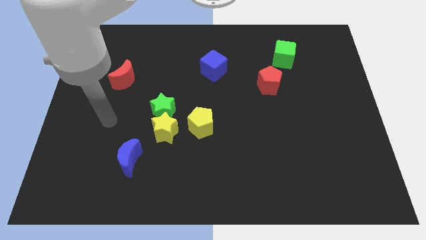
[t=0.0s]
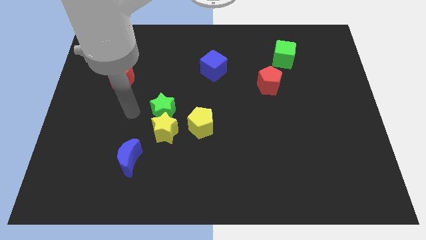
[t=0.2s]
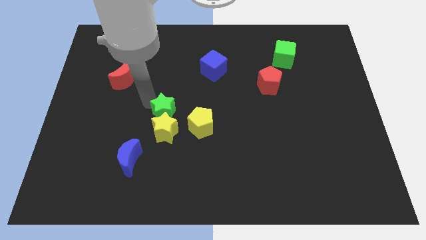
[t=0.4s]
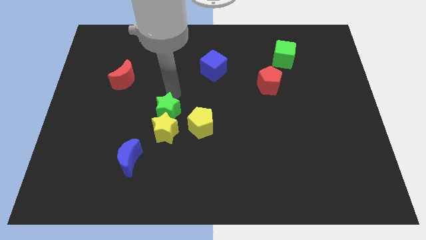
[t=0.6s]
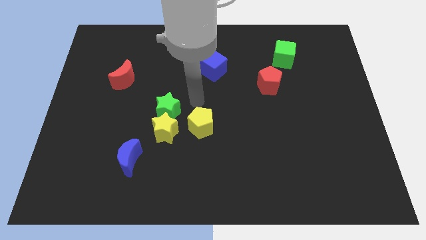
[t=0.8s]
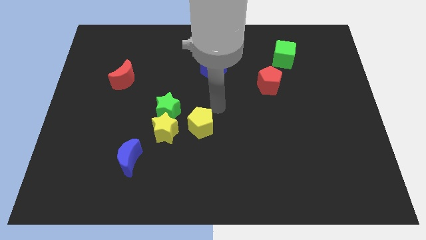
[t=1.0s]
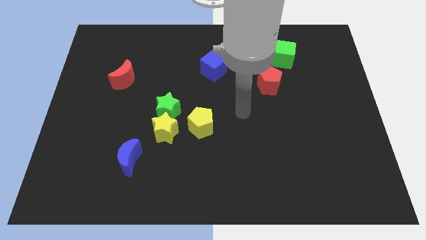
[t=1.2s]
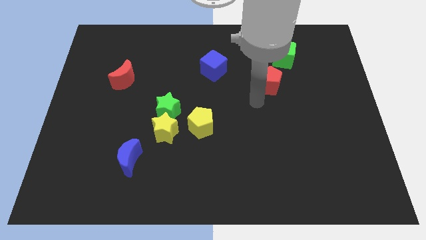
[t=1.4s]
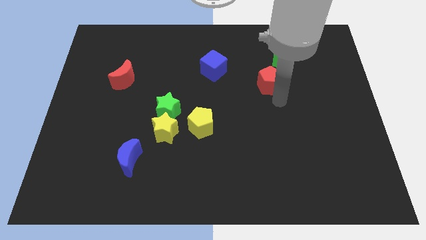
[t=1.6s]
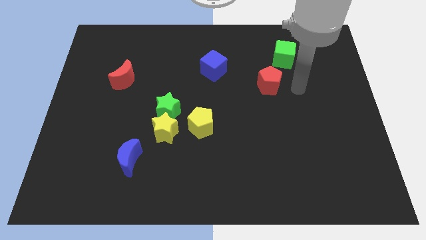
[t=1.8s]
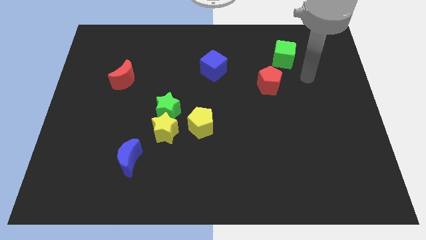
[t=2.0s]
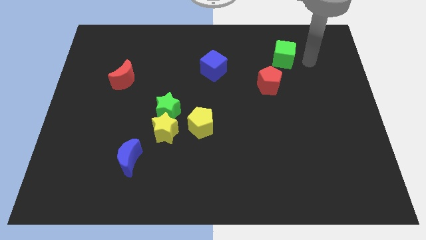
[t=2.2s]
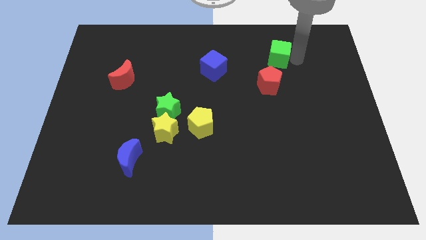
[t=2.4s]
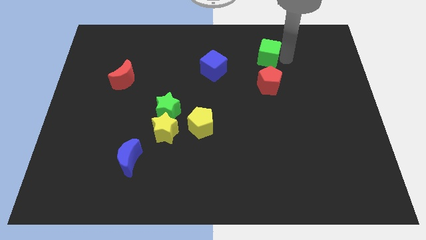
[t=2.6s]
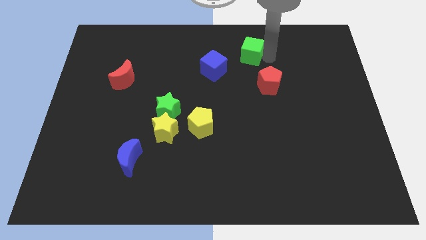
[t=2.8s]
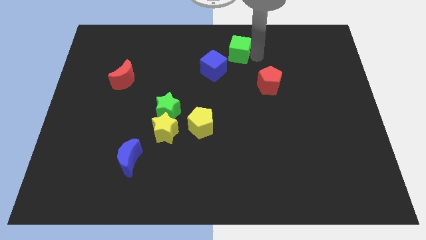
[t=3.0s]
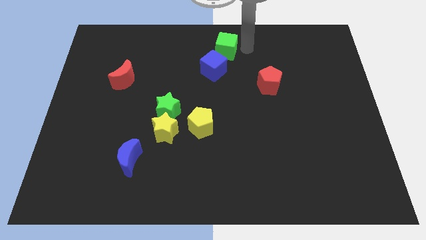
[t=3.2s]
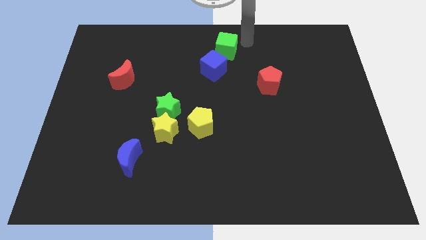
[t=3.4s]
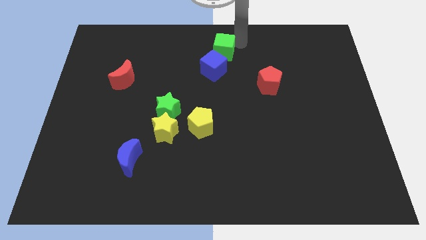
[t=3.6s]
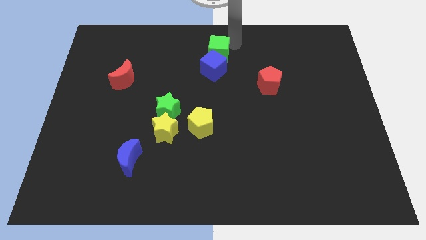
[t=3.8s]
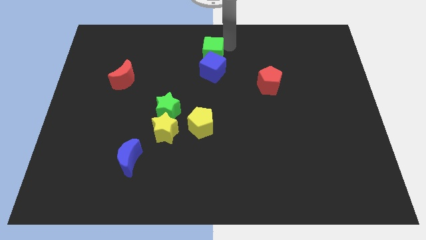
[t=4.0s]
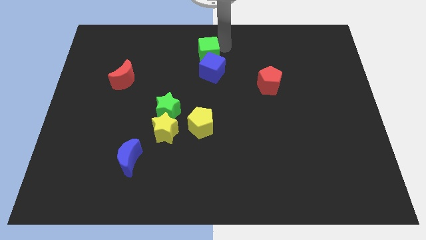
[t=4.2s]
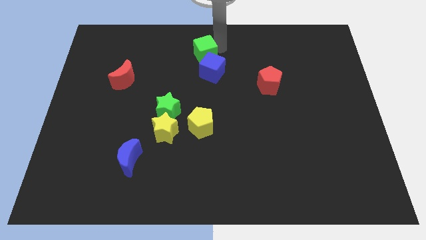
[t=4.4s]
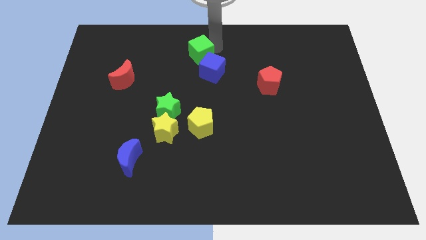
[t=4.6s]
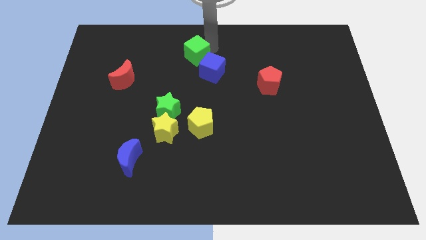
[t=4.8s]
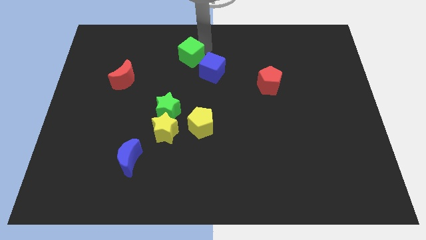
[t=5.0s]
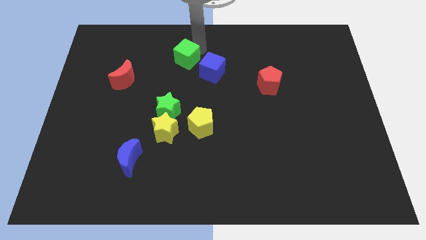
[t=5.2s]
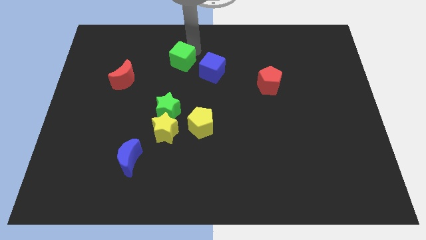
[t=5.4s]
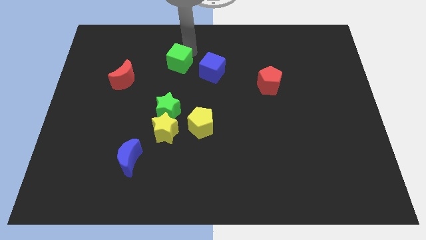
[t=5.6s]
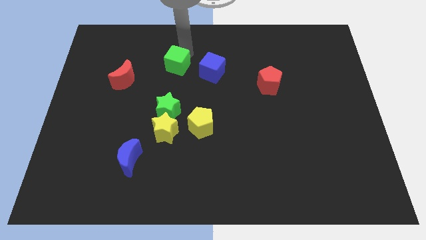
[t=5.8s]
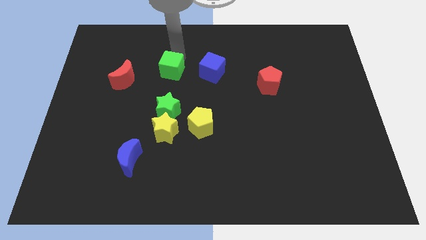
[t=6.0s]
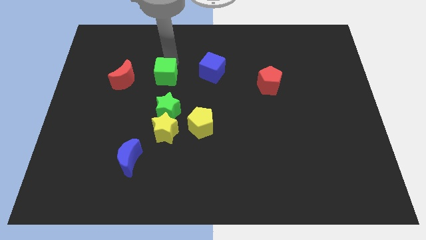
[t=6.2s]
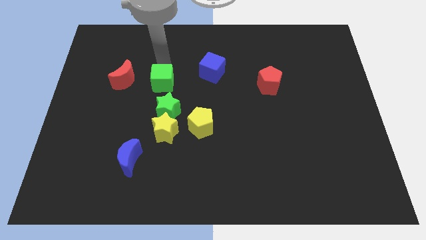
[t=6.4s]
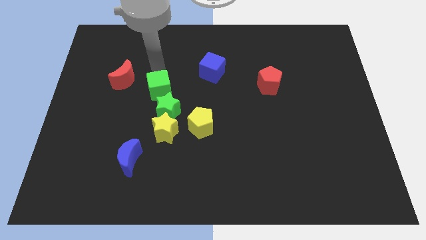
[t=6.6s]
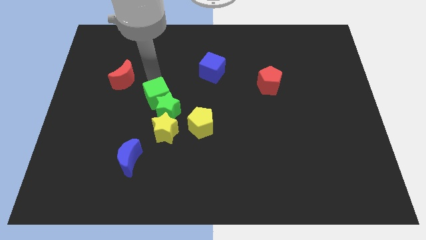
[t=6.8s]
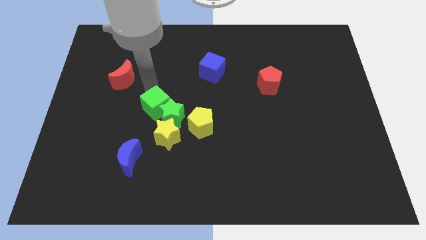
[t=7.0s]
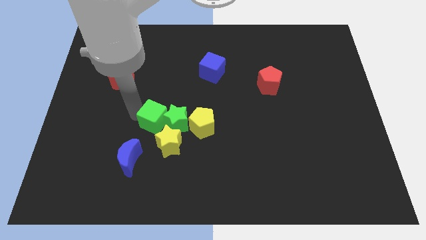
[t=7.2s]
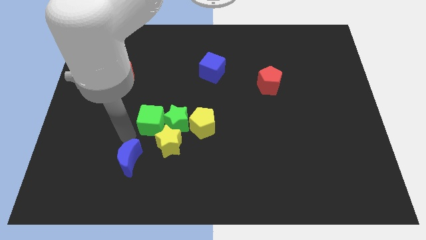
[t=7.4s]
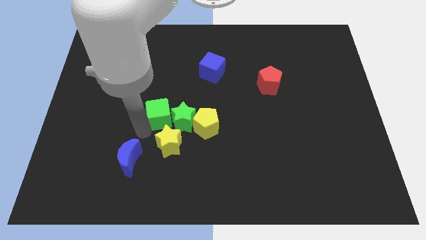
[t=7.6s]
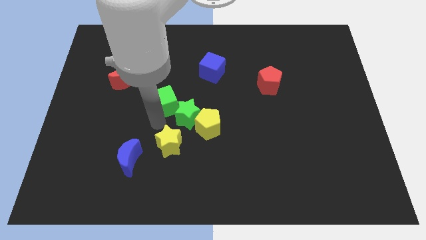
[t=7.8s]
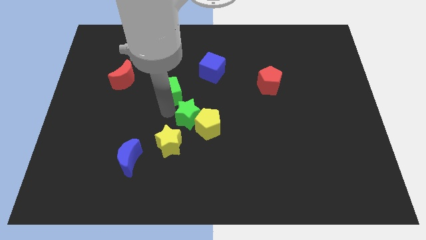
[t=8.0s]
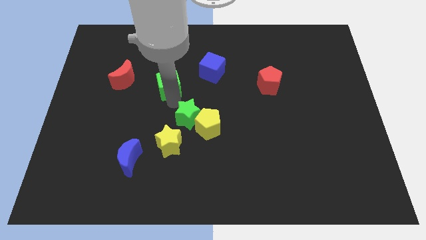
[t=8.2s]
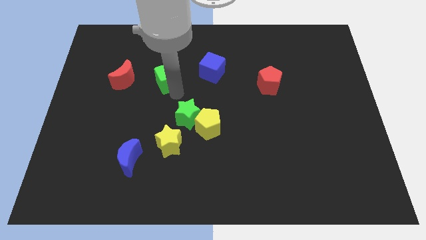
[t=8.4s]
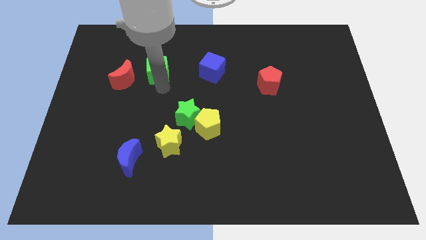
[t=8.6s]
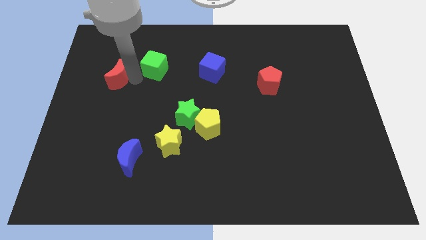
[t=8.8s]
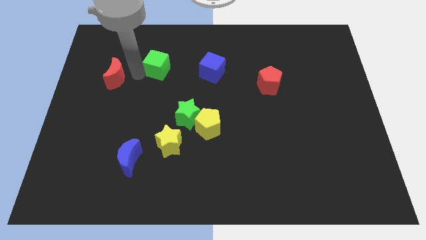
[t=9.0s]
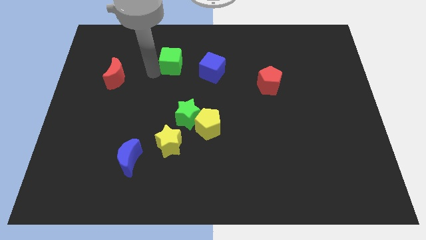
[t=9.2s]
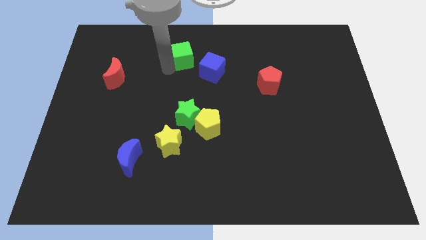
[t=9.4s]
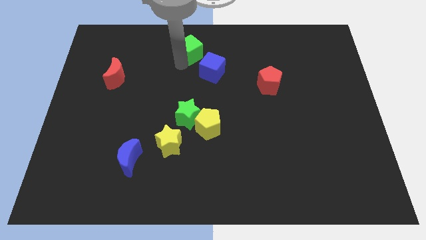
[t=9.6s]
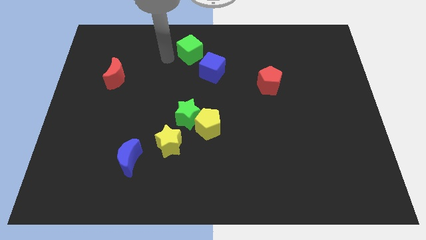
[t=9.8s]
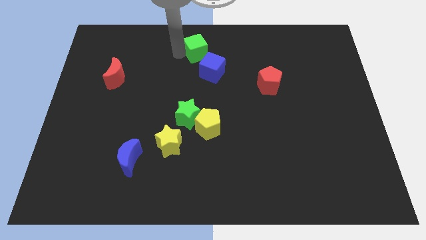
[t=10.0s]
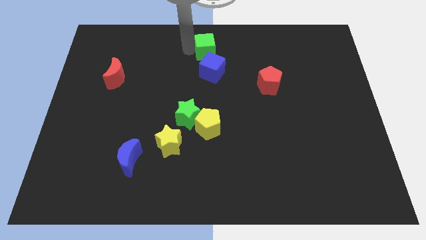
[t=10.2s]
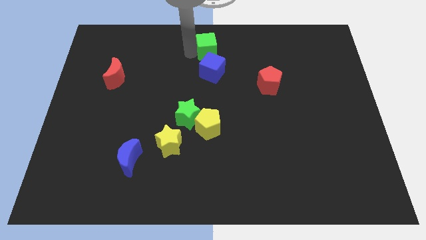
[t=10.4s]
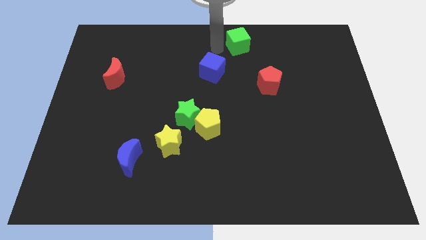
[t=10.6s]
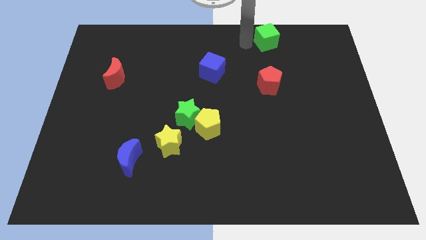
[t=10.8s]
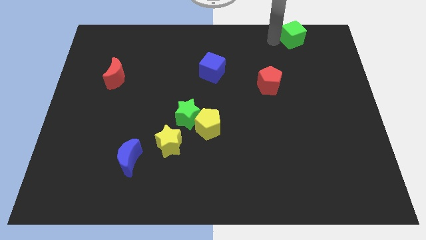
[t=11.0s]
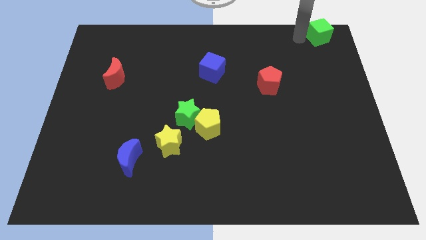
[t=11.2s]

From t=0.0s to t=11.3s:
push the green cube to the top right of the board
